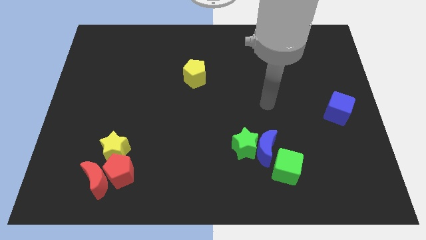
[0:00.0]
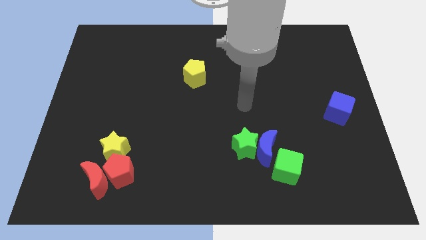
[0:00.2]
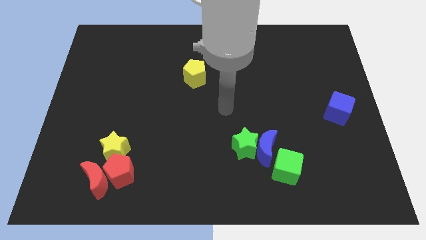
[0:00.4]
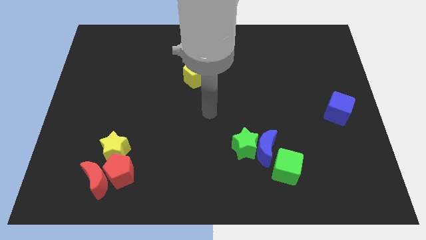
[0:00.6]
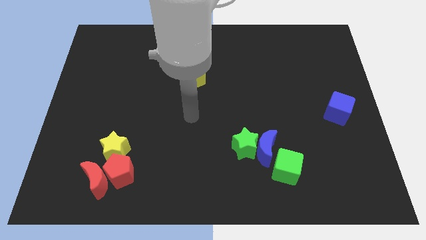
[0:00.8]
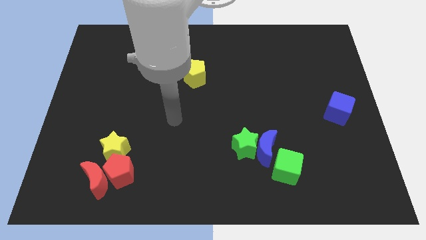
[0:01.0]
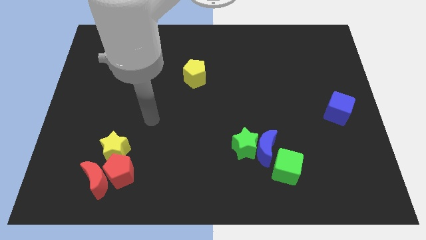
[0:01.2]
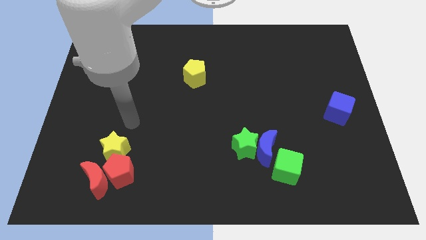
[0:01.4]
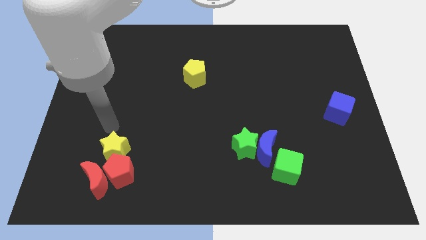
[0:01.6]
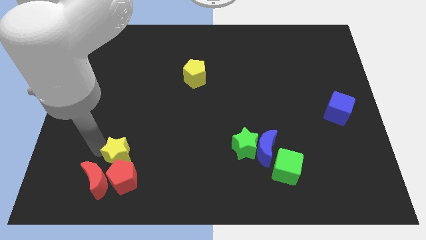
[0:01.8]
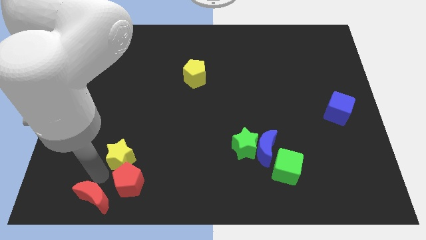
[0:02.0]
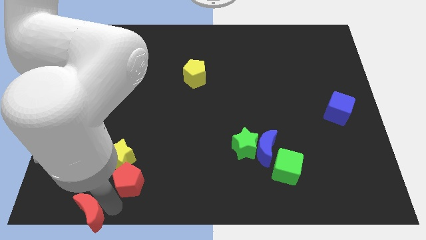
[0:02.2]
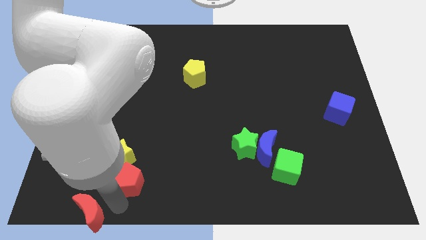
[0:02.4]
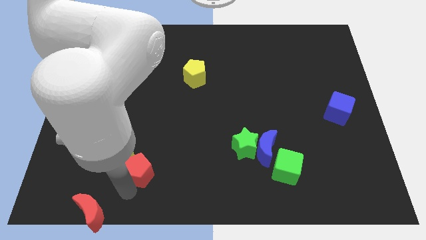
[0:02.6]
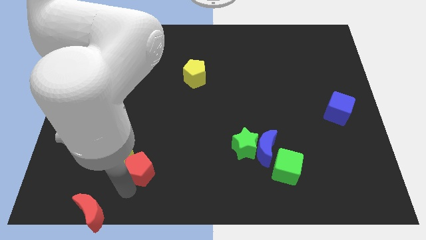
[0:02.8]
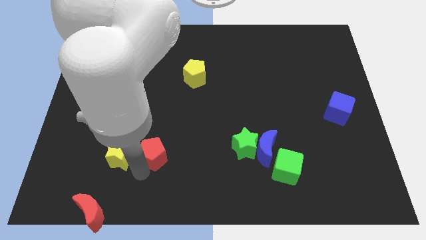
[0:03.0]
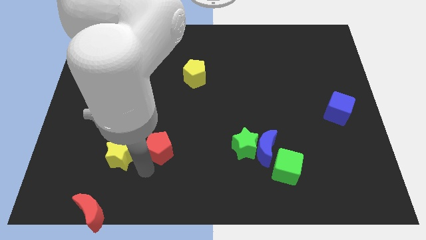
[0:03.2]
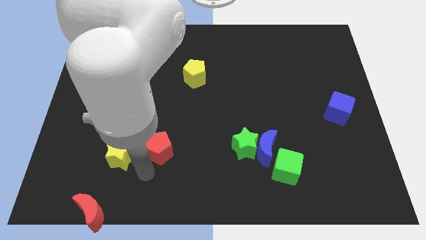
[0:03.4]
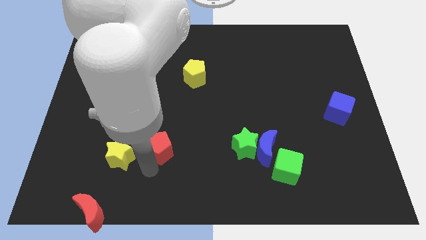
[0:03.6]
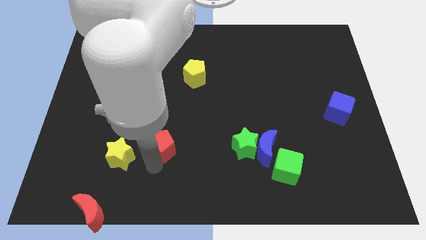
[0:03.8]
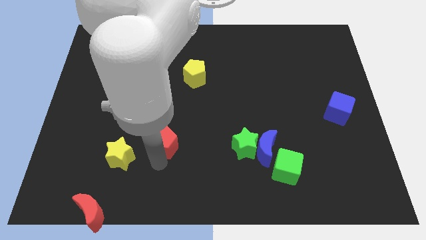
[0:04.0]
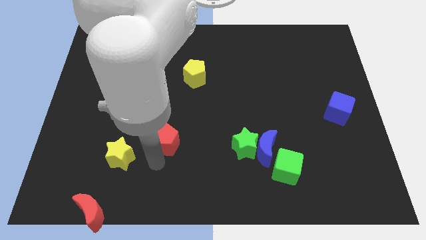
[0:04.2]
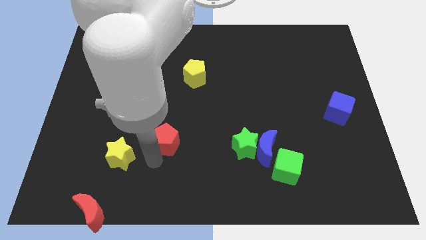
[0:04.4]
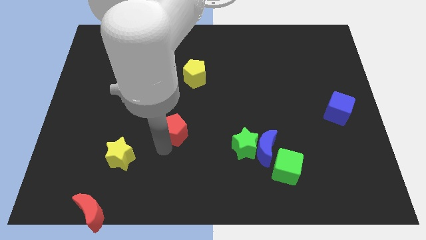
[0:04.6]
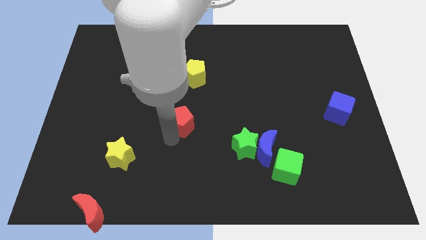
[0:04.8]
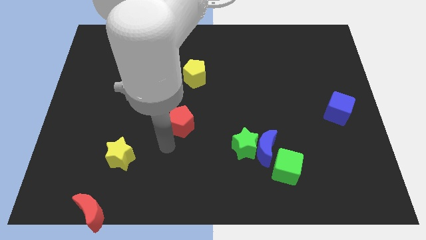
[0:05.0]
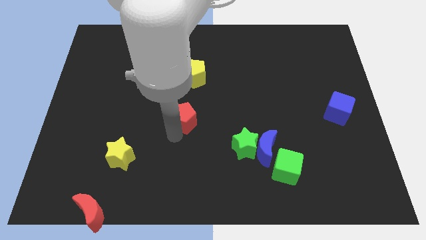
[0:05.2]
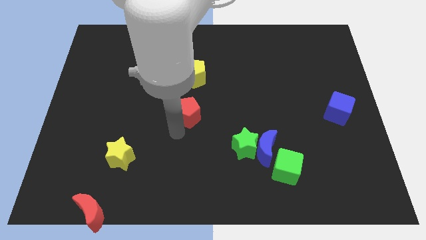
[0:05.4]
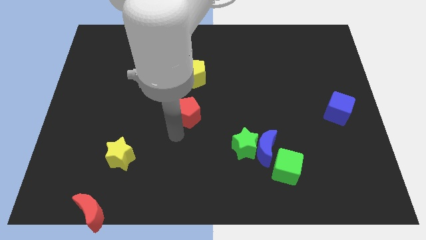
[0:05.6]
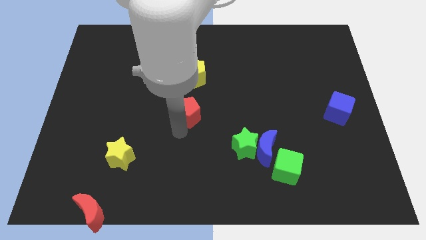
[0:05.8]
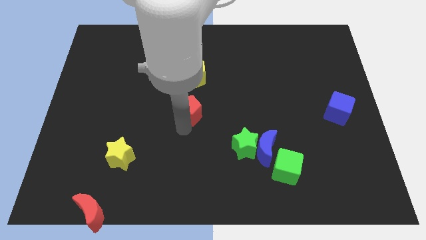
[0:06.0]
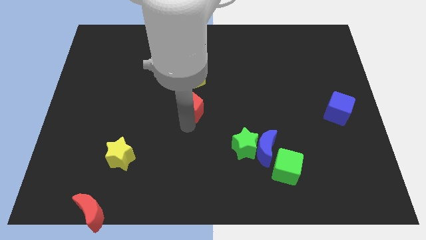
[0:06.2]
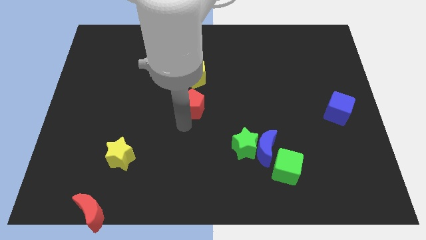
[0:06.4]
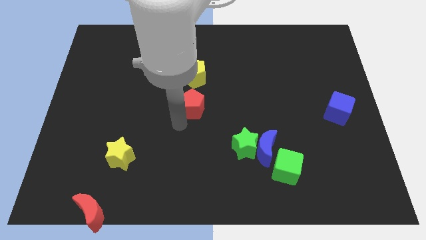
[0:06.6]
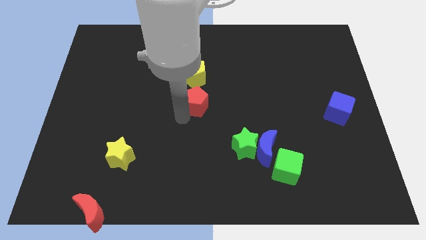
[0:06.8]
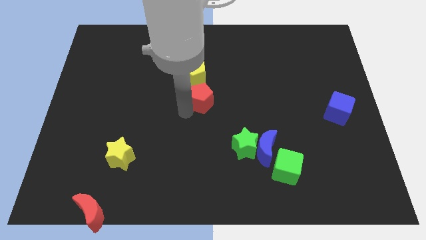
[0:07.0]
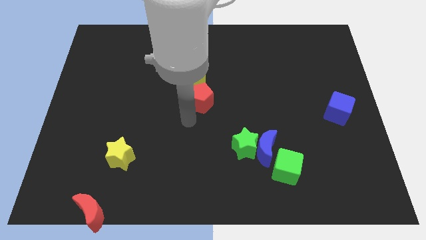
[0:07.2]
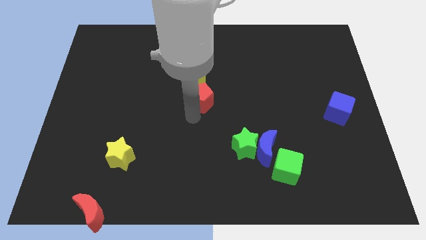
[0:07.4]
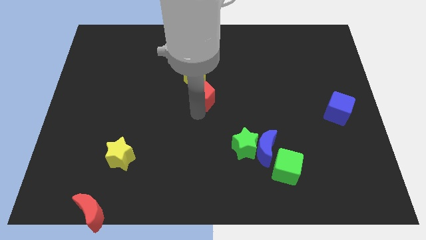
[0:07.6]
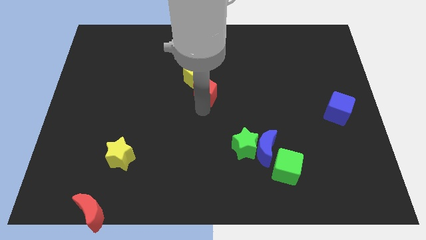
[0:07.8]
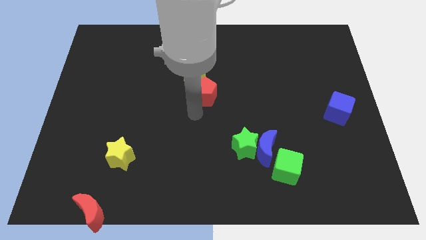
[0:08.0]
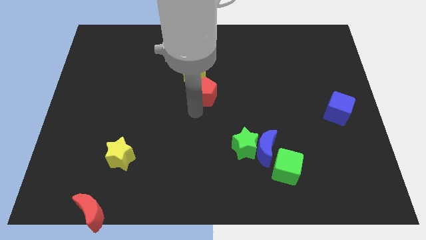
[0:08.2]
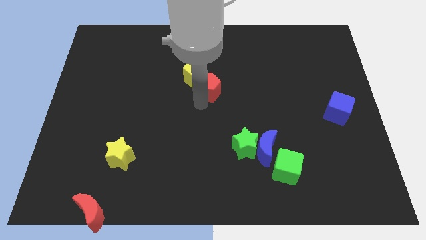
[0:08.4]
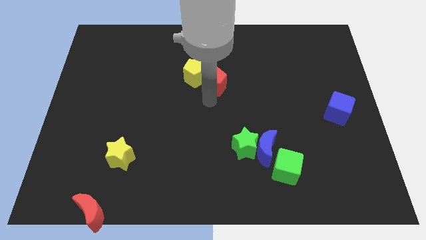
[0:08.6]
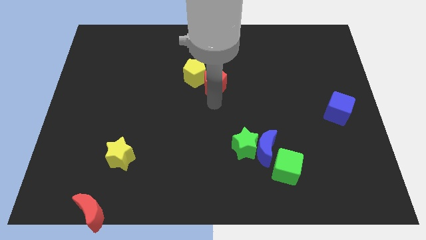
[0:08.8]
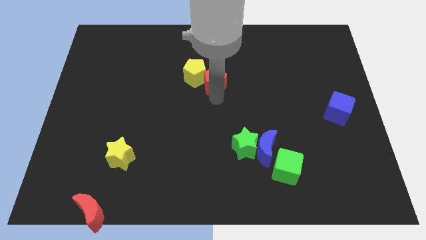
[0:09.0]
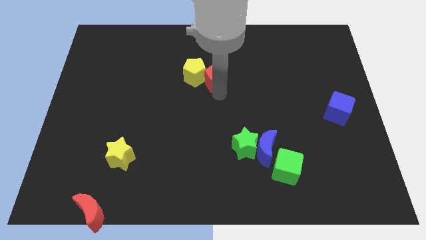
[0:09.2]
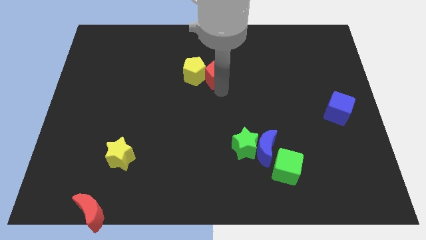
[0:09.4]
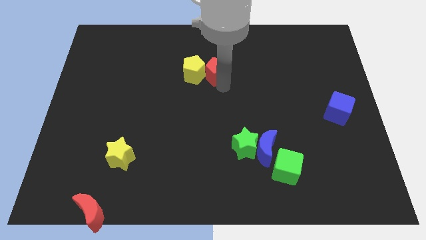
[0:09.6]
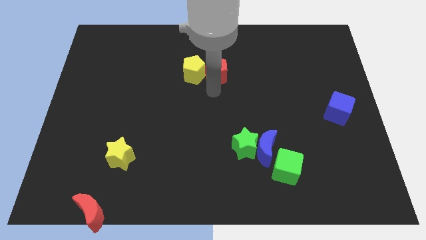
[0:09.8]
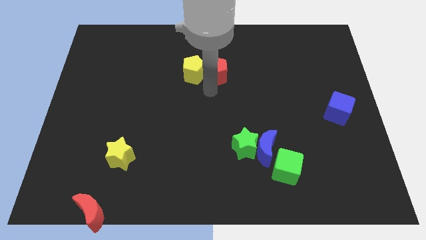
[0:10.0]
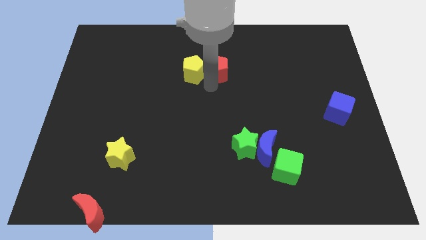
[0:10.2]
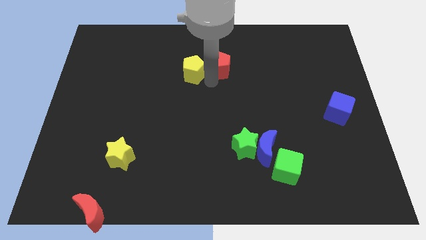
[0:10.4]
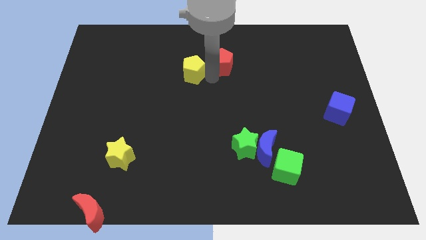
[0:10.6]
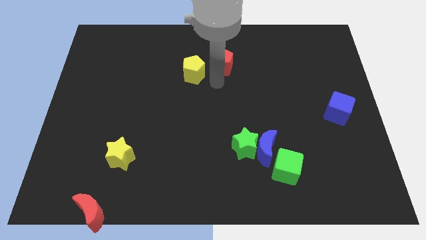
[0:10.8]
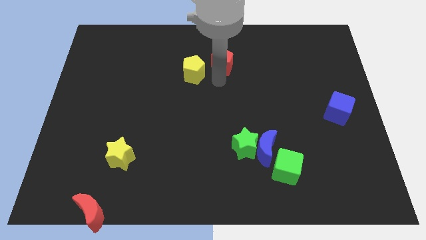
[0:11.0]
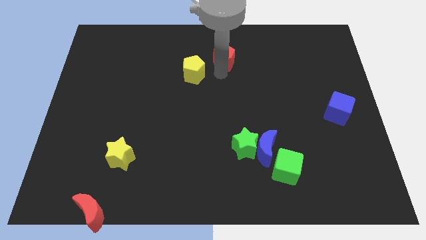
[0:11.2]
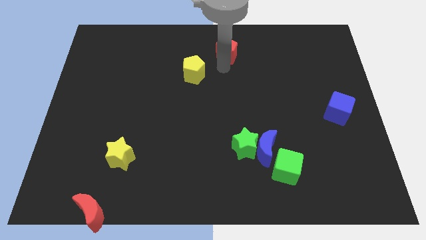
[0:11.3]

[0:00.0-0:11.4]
move the red pentagon to the top

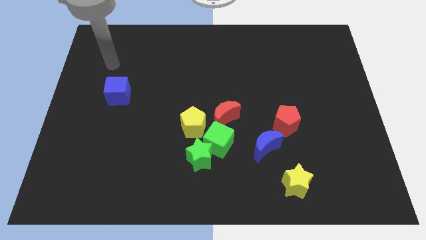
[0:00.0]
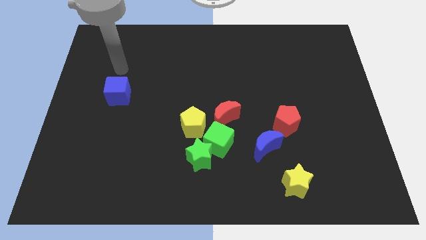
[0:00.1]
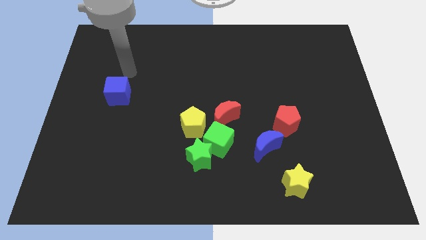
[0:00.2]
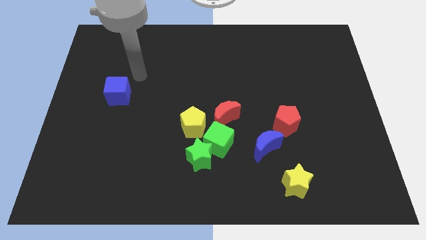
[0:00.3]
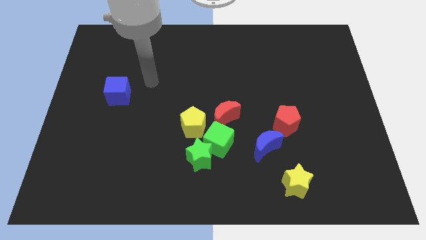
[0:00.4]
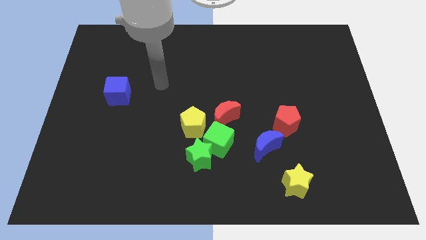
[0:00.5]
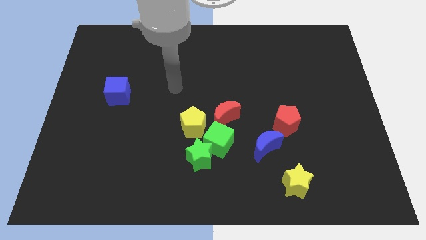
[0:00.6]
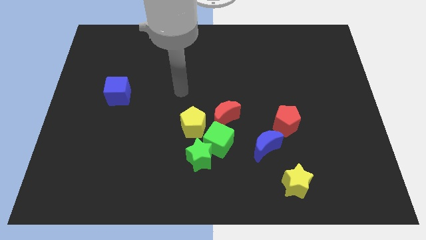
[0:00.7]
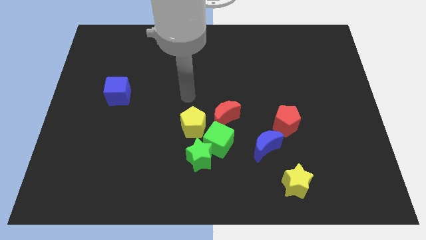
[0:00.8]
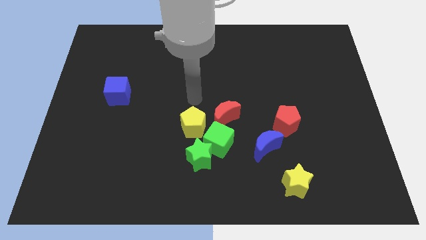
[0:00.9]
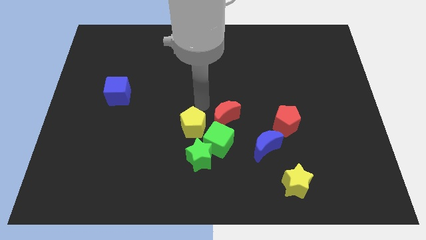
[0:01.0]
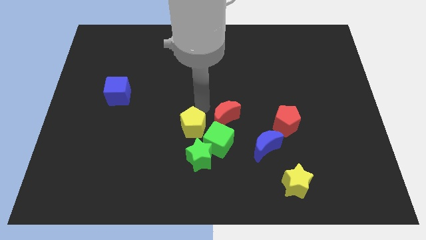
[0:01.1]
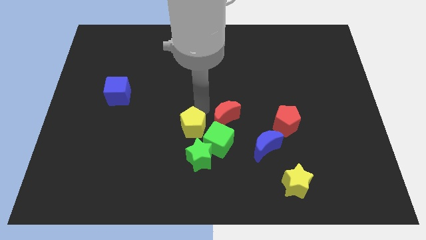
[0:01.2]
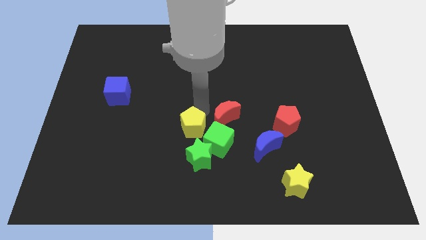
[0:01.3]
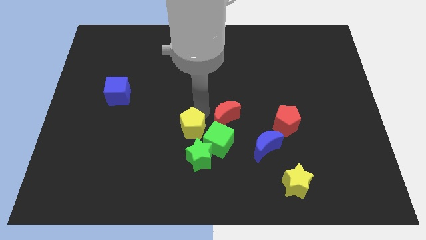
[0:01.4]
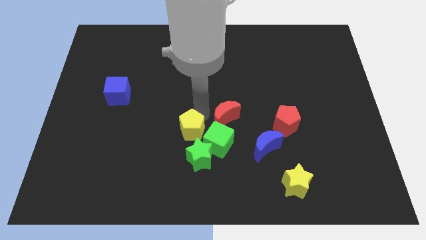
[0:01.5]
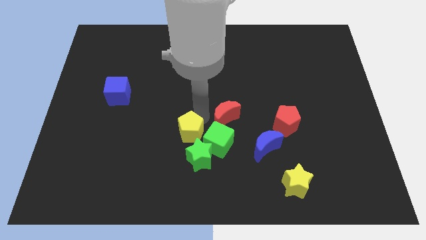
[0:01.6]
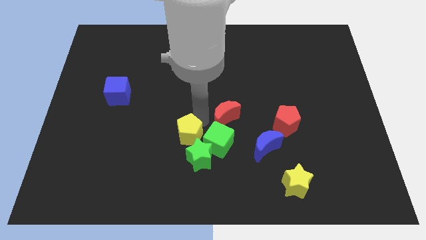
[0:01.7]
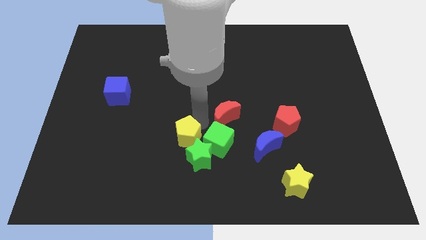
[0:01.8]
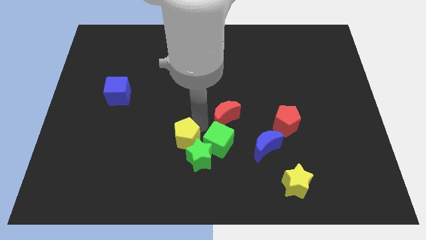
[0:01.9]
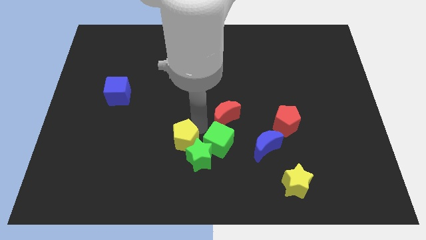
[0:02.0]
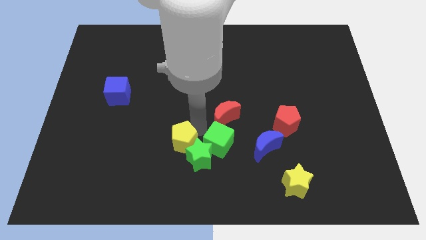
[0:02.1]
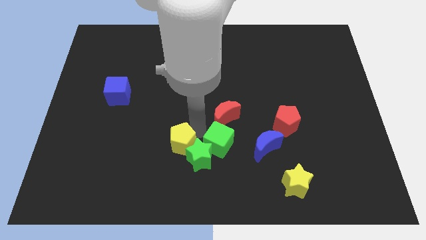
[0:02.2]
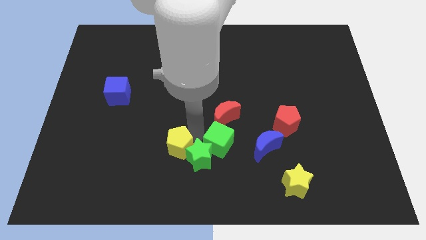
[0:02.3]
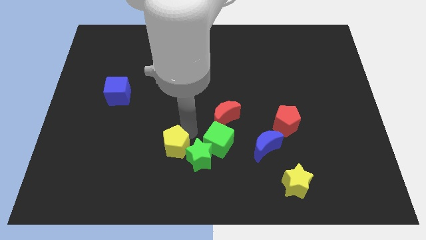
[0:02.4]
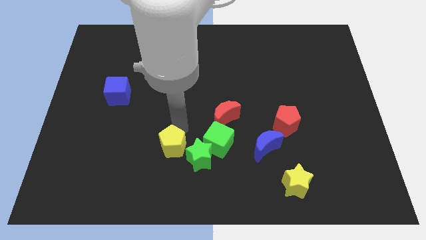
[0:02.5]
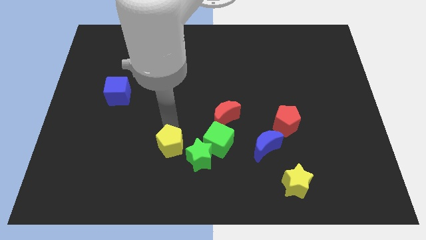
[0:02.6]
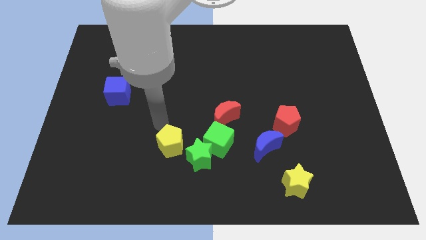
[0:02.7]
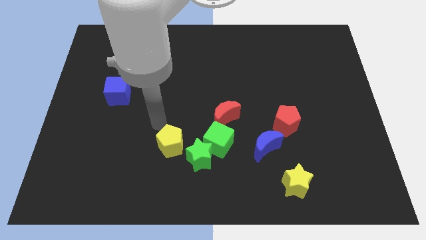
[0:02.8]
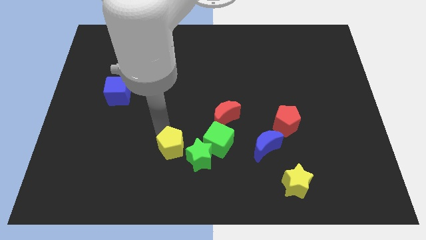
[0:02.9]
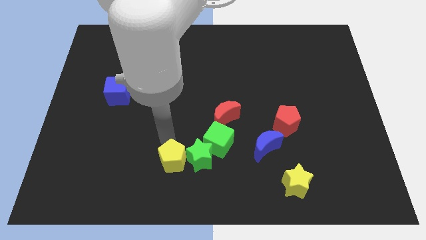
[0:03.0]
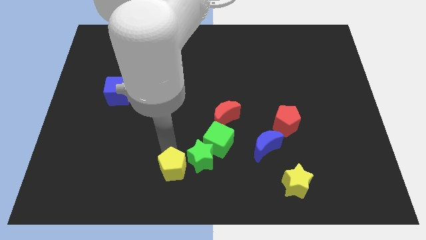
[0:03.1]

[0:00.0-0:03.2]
move the yellow pentagon to the bottom side
